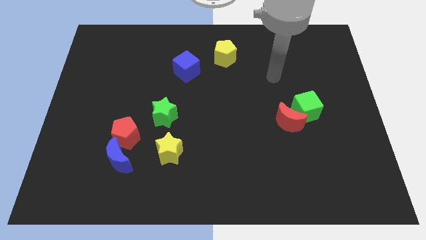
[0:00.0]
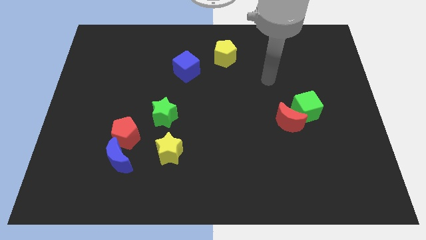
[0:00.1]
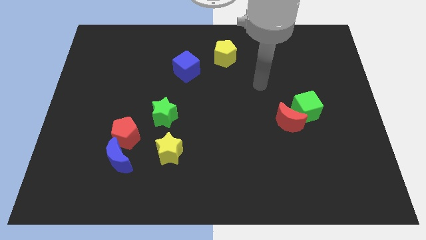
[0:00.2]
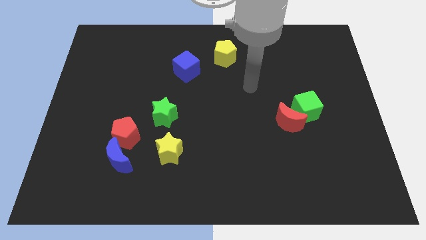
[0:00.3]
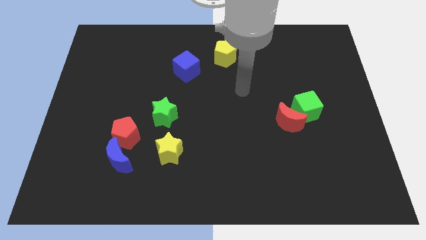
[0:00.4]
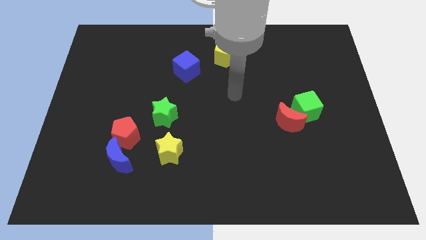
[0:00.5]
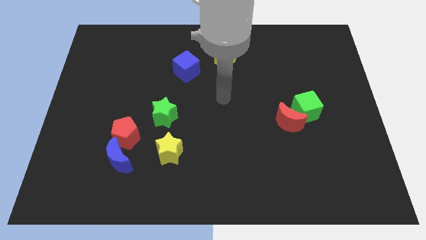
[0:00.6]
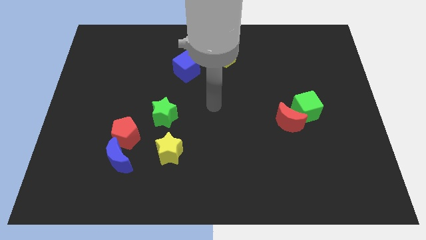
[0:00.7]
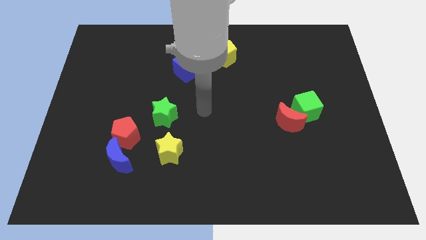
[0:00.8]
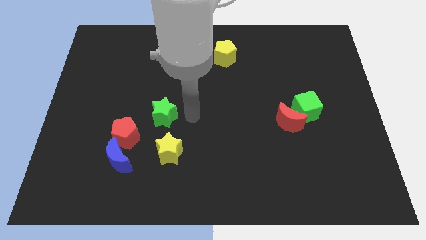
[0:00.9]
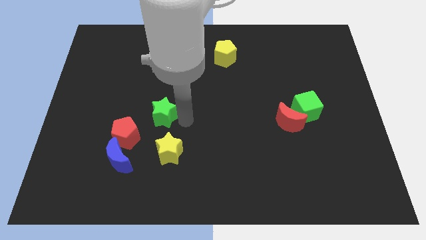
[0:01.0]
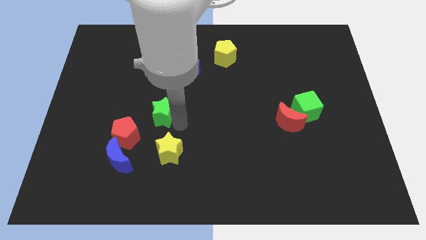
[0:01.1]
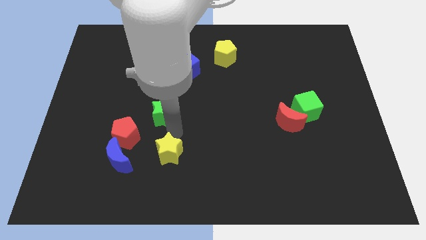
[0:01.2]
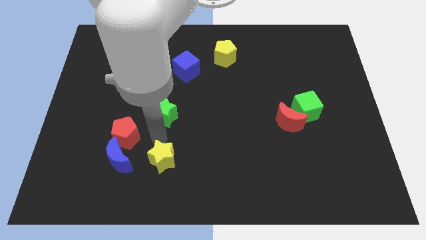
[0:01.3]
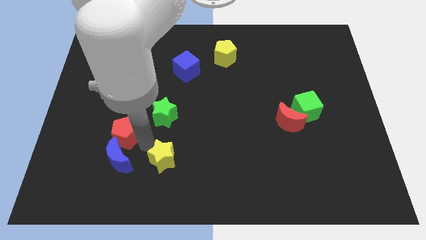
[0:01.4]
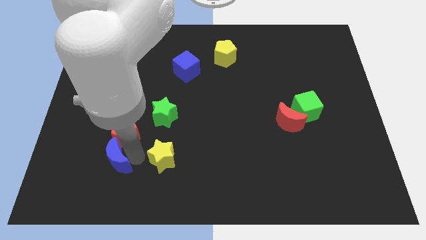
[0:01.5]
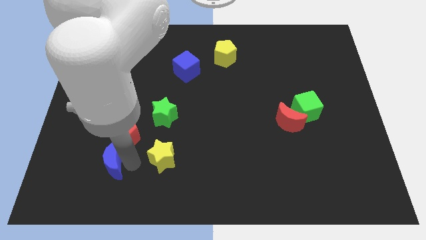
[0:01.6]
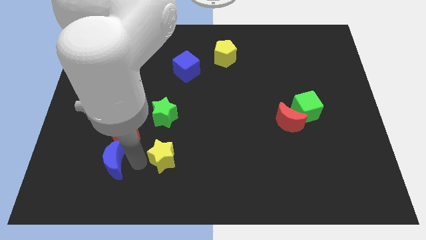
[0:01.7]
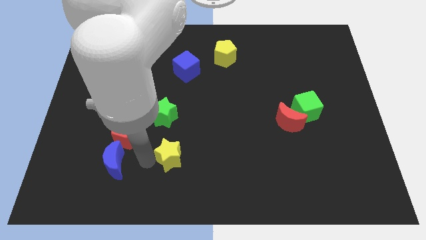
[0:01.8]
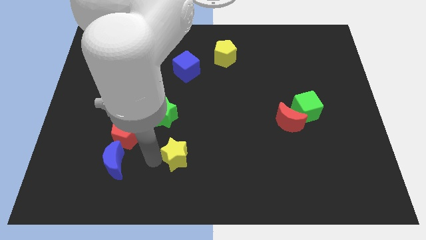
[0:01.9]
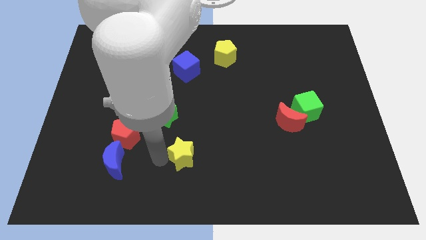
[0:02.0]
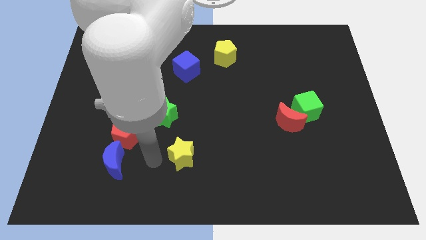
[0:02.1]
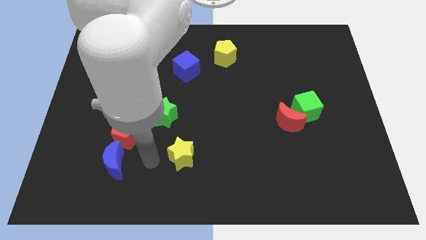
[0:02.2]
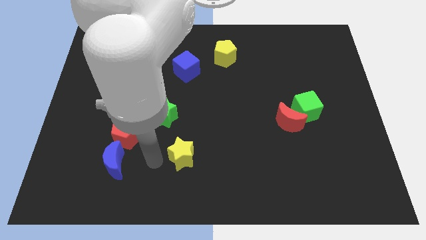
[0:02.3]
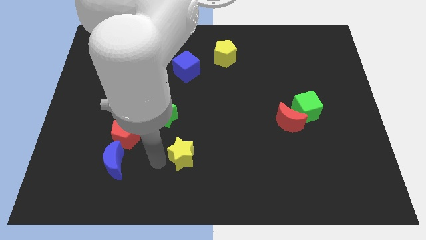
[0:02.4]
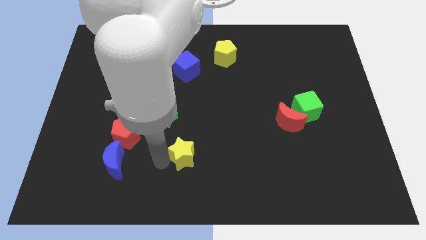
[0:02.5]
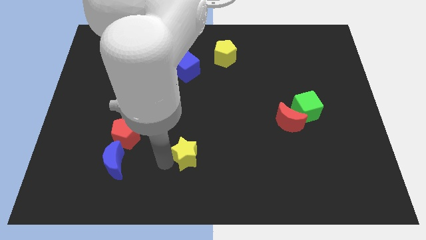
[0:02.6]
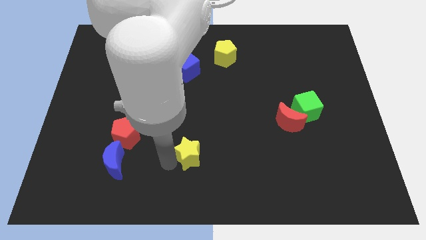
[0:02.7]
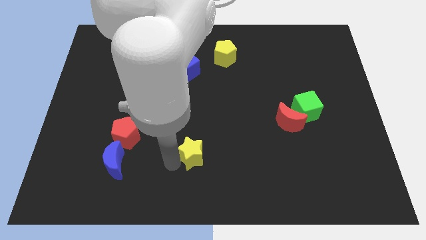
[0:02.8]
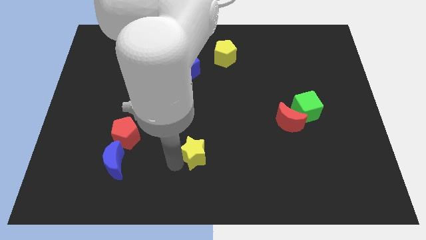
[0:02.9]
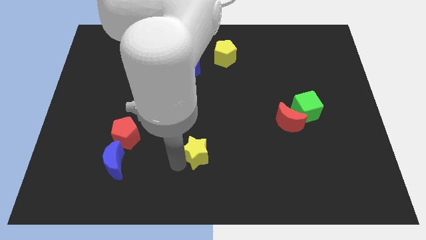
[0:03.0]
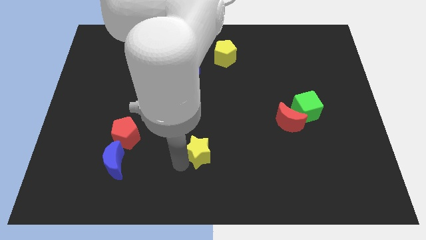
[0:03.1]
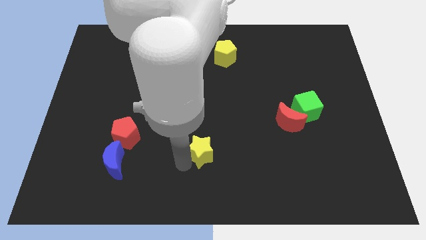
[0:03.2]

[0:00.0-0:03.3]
slide the yellow star somewhat right

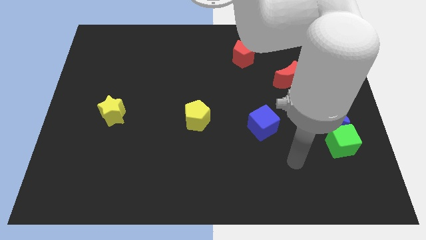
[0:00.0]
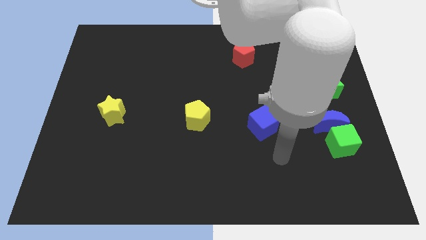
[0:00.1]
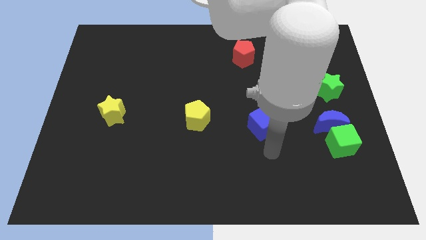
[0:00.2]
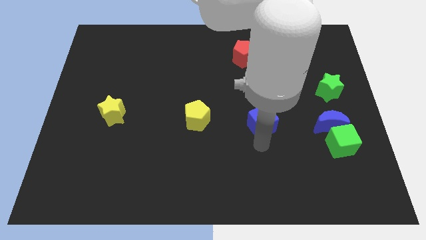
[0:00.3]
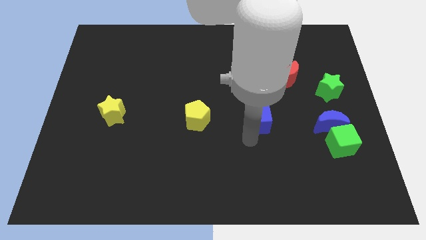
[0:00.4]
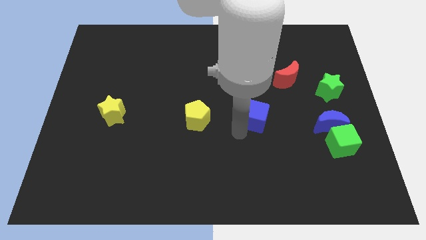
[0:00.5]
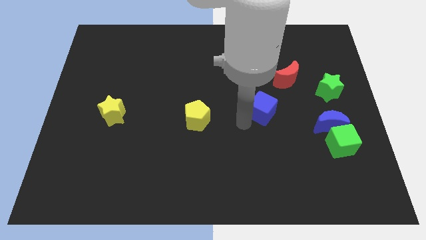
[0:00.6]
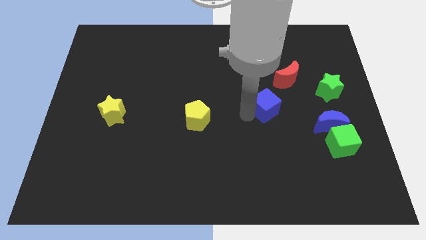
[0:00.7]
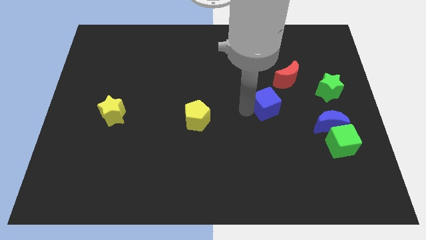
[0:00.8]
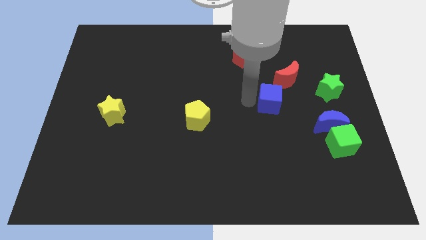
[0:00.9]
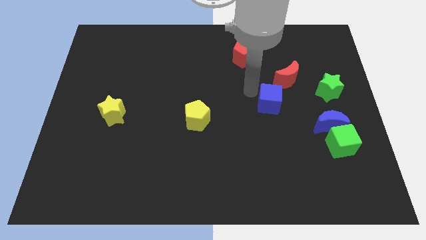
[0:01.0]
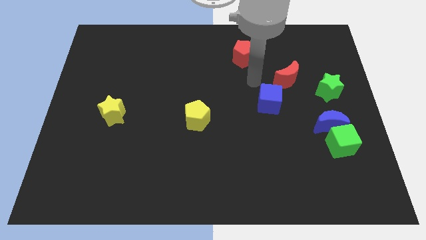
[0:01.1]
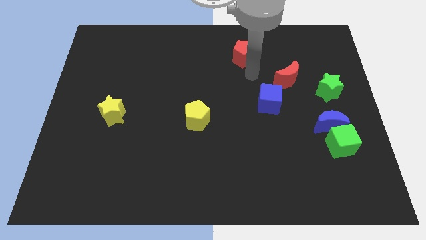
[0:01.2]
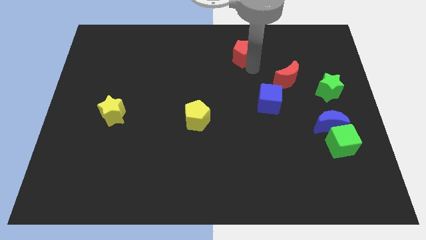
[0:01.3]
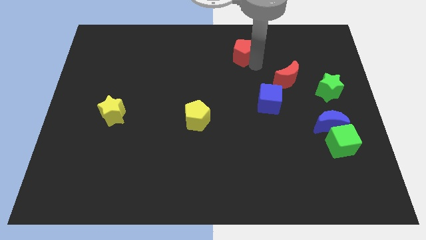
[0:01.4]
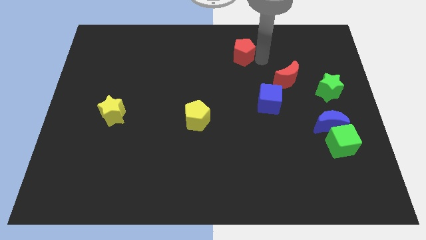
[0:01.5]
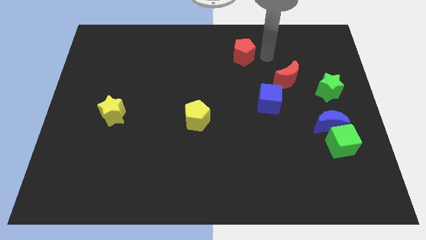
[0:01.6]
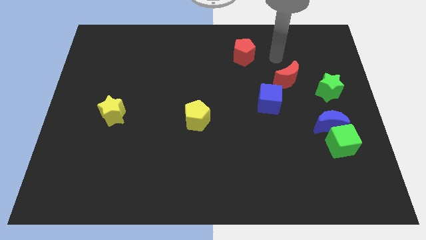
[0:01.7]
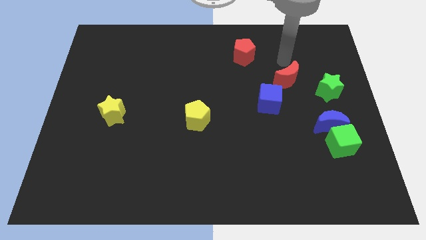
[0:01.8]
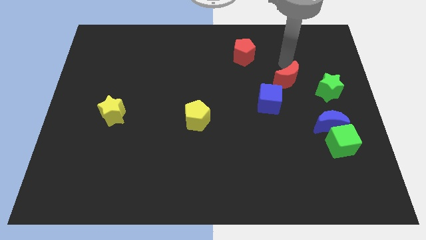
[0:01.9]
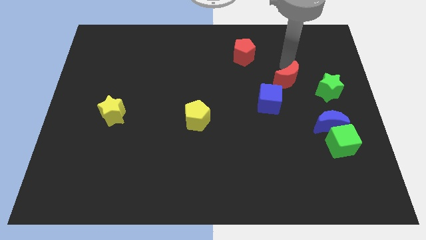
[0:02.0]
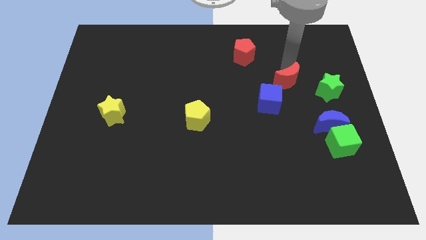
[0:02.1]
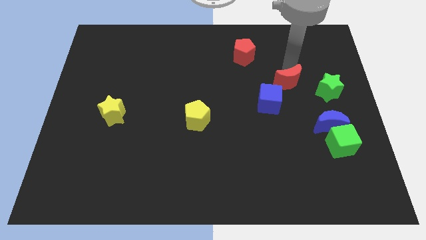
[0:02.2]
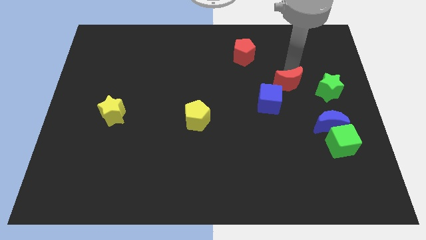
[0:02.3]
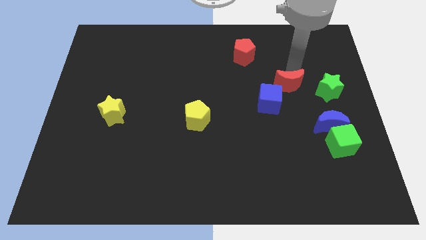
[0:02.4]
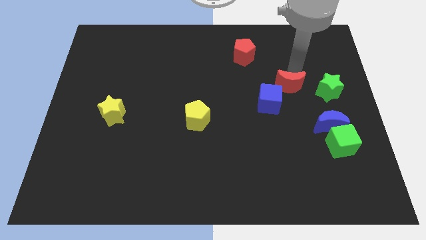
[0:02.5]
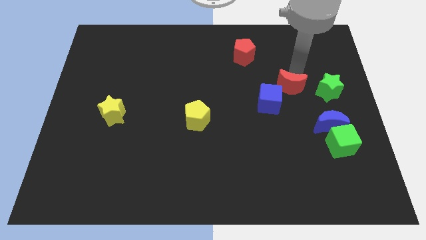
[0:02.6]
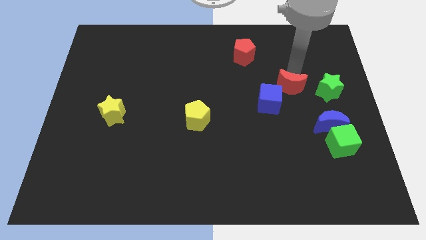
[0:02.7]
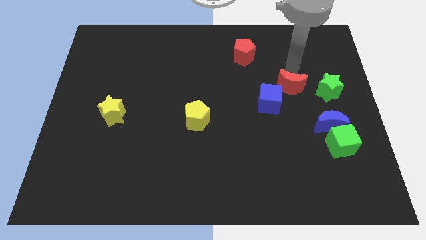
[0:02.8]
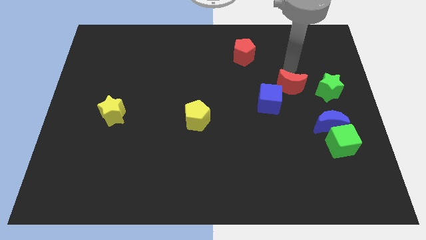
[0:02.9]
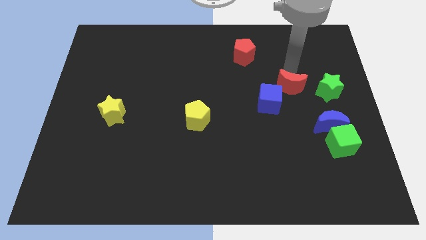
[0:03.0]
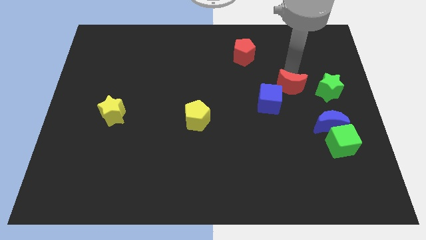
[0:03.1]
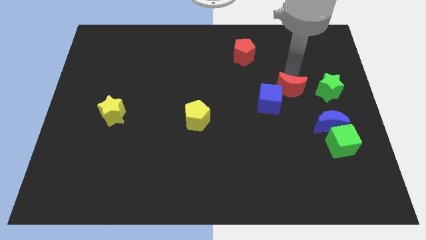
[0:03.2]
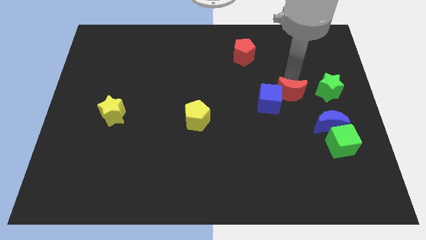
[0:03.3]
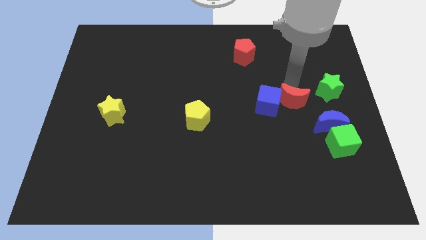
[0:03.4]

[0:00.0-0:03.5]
move the red moon a little bit down

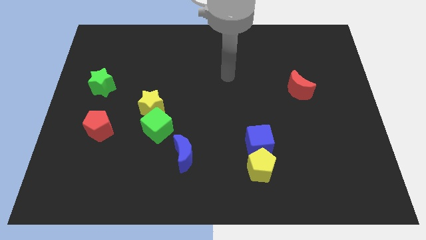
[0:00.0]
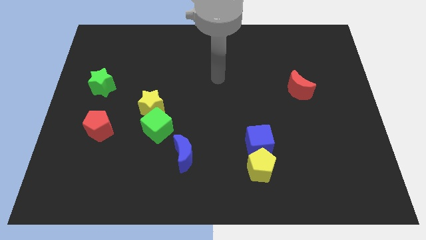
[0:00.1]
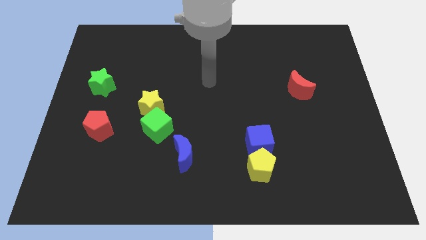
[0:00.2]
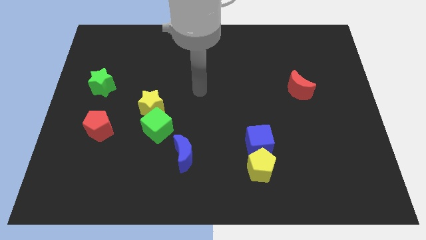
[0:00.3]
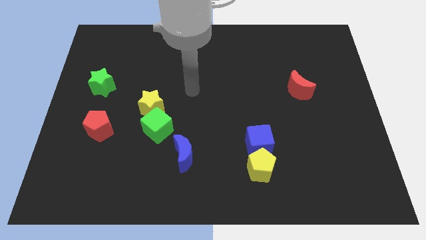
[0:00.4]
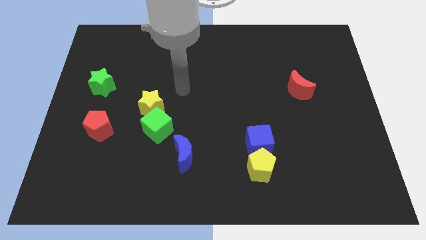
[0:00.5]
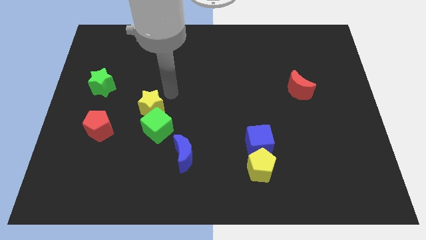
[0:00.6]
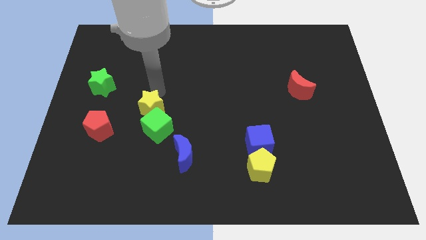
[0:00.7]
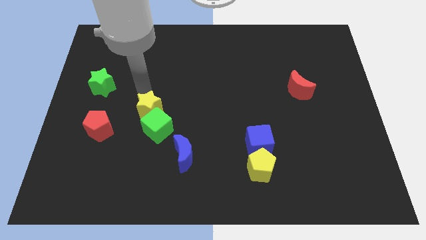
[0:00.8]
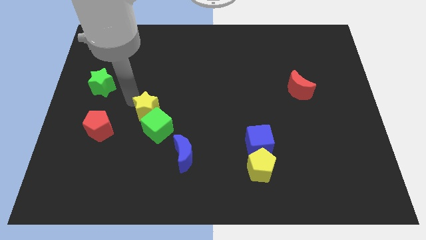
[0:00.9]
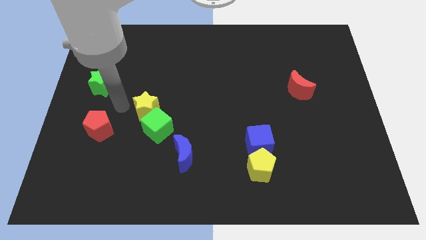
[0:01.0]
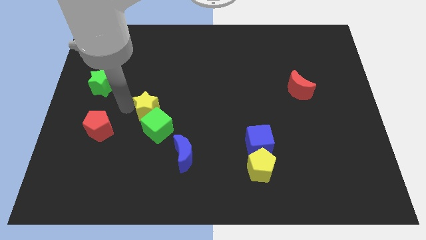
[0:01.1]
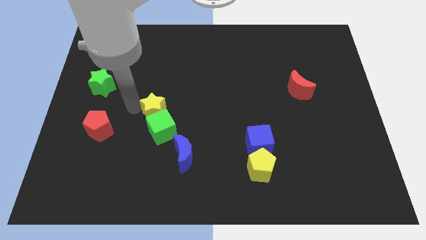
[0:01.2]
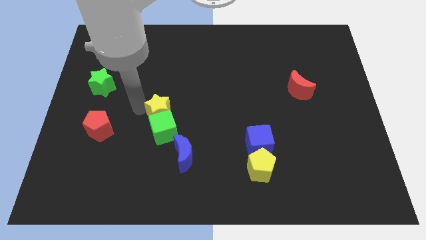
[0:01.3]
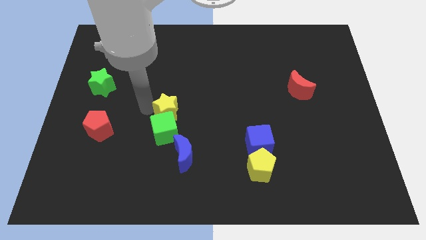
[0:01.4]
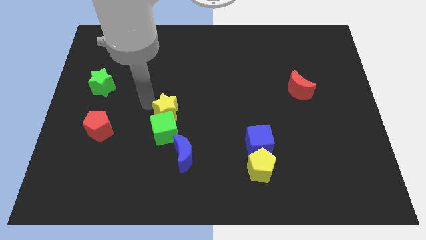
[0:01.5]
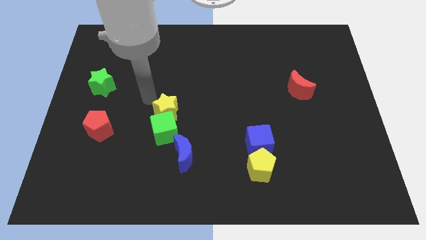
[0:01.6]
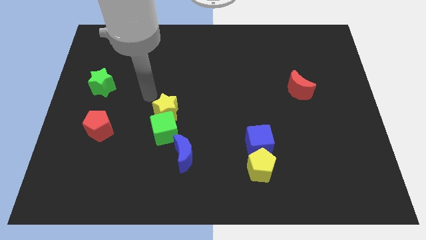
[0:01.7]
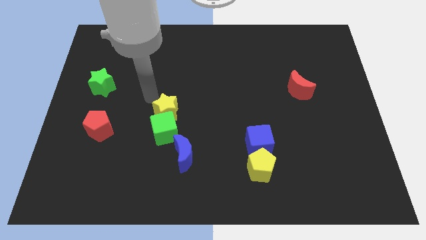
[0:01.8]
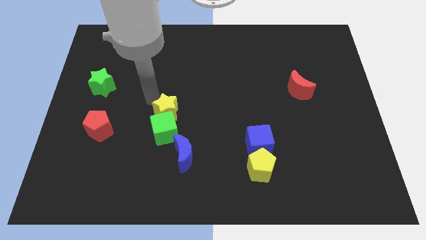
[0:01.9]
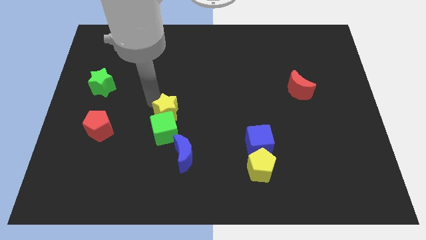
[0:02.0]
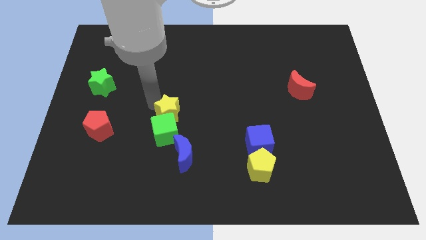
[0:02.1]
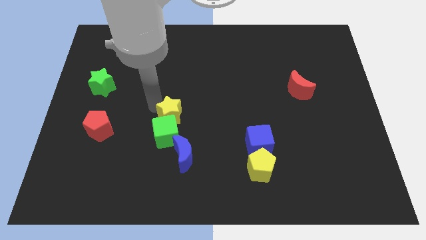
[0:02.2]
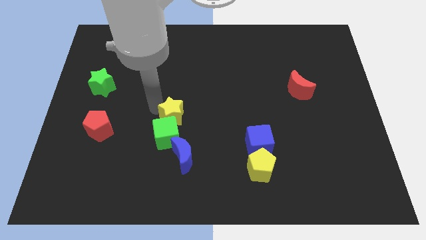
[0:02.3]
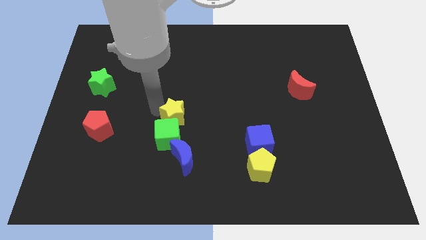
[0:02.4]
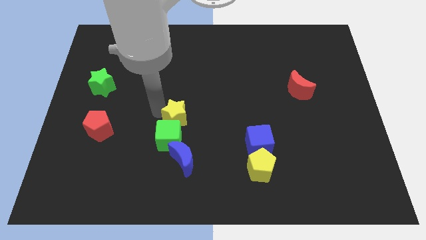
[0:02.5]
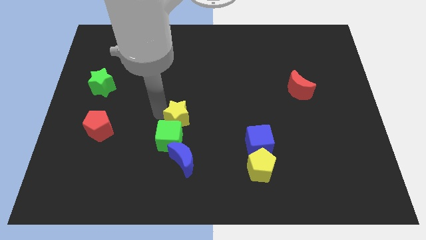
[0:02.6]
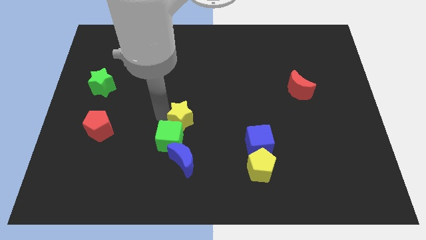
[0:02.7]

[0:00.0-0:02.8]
push the yellow star down and right a little
